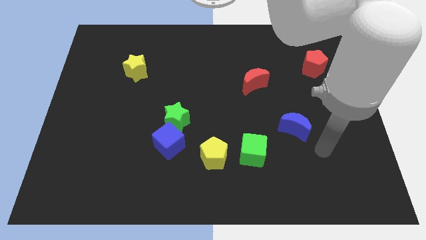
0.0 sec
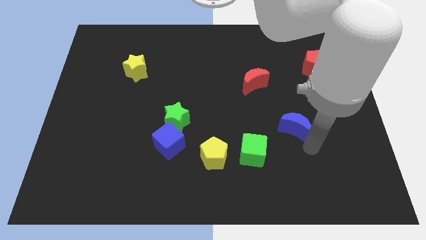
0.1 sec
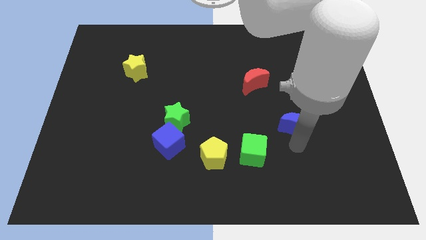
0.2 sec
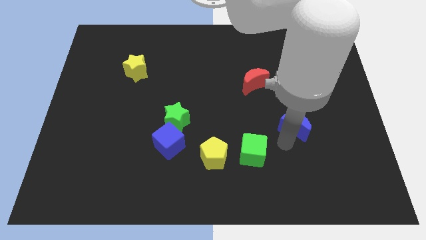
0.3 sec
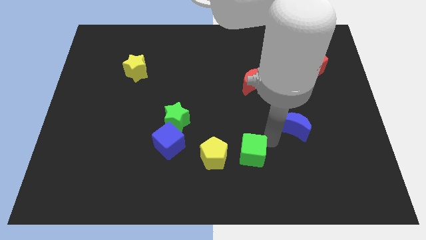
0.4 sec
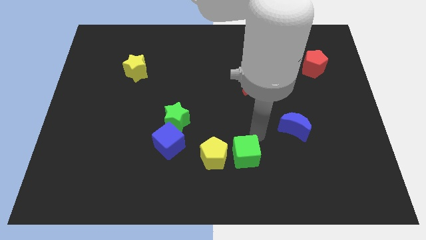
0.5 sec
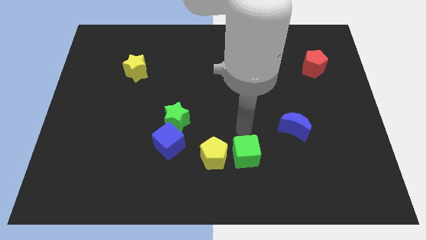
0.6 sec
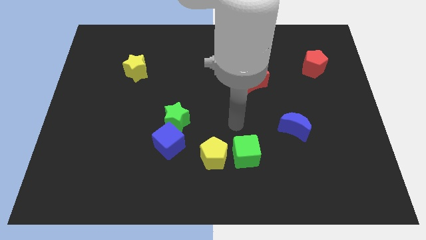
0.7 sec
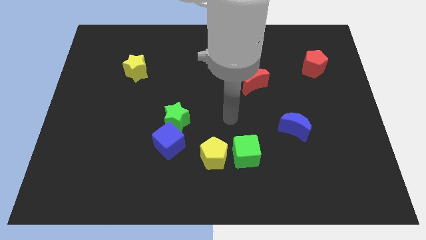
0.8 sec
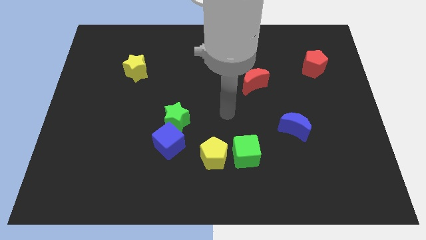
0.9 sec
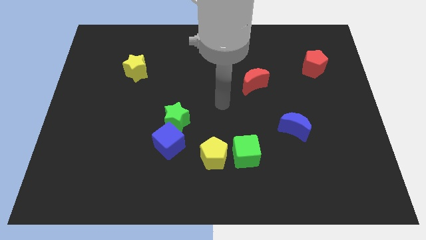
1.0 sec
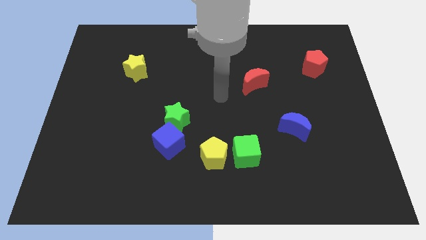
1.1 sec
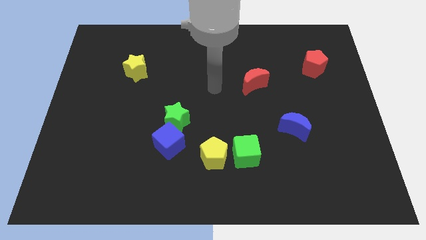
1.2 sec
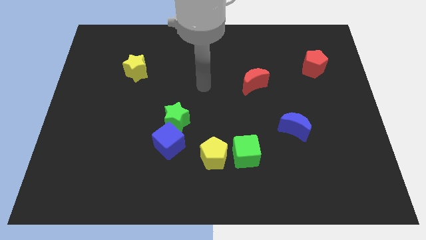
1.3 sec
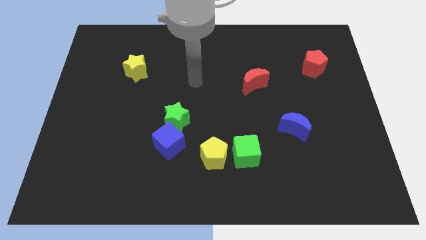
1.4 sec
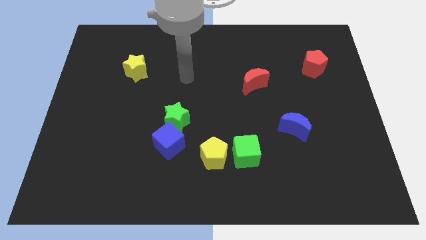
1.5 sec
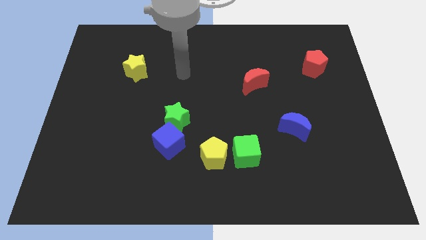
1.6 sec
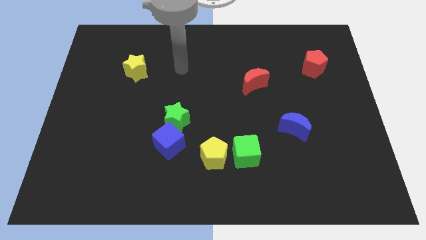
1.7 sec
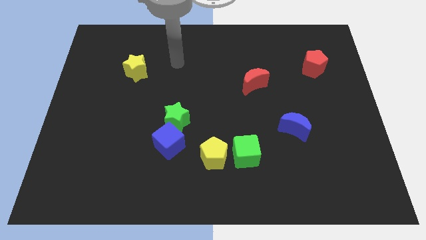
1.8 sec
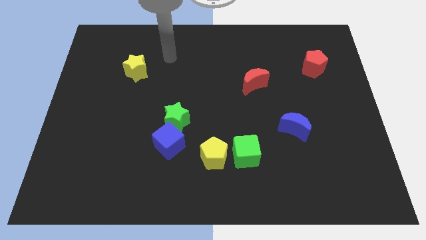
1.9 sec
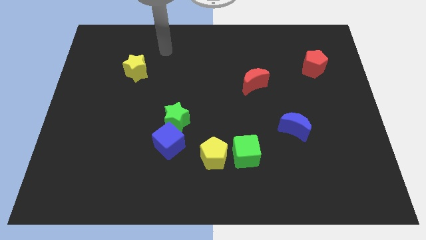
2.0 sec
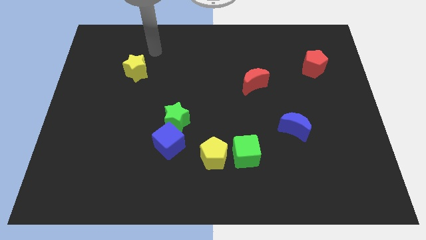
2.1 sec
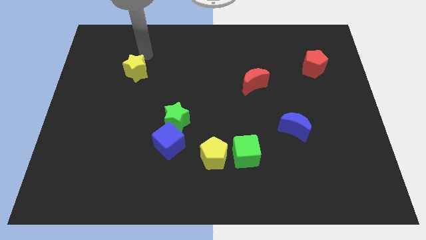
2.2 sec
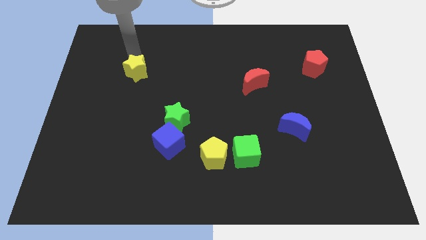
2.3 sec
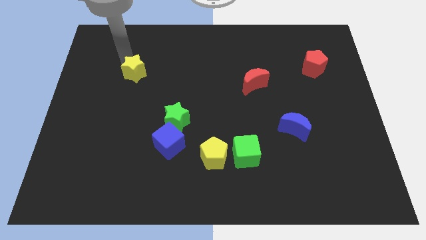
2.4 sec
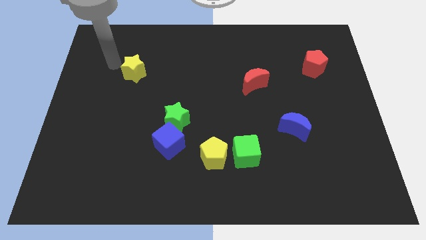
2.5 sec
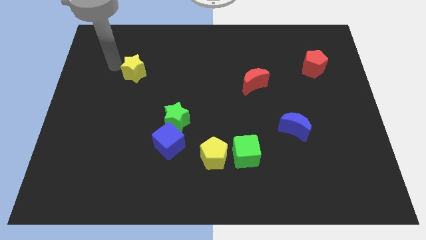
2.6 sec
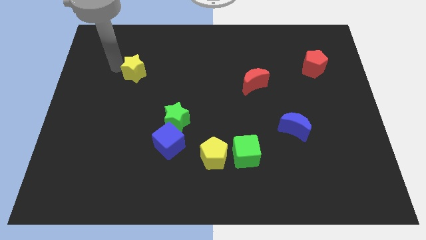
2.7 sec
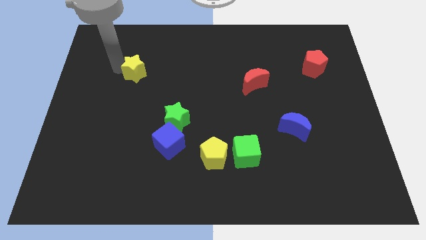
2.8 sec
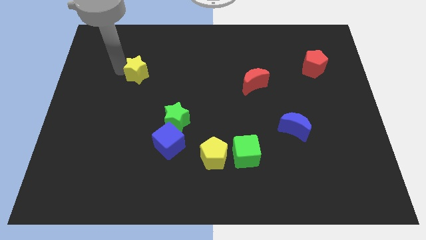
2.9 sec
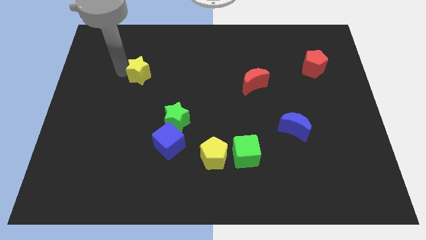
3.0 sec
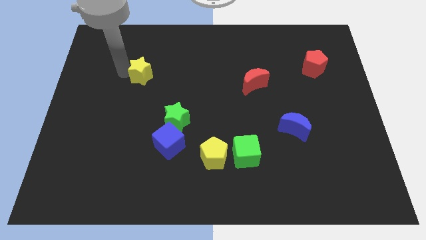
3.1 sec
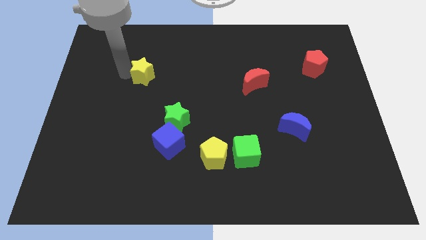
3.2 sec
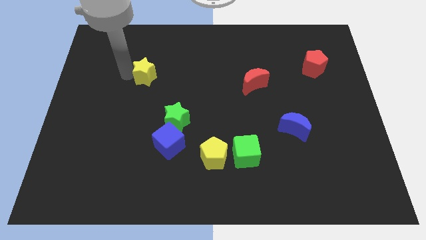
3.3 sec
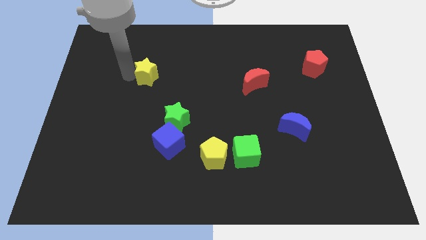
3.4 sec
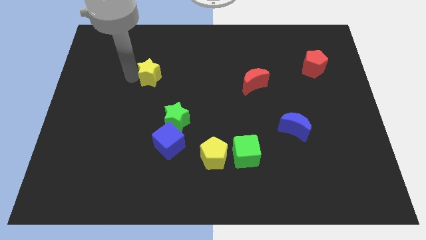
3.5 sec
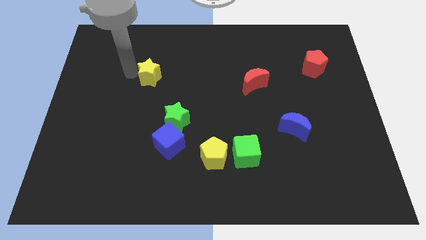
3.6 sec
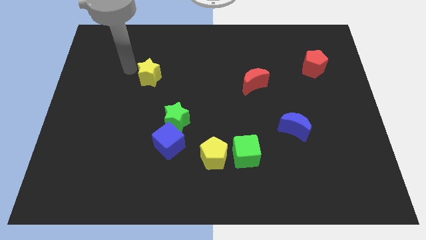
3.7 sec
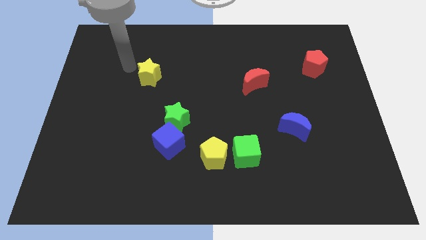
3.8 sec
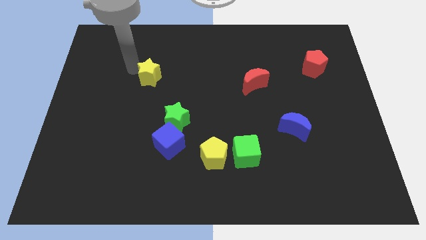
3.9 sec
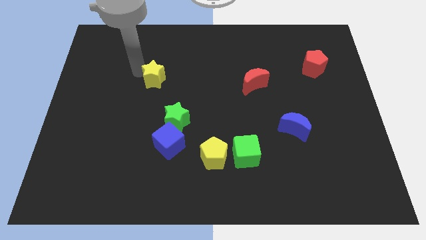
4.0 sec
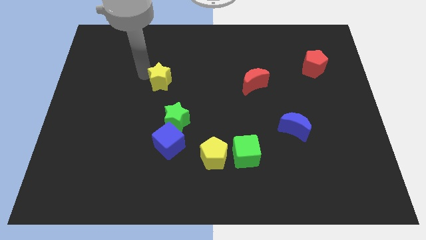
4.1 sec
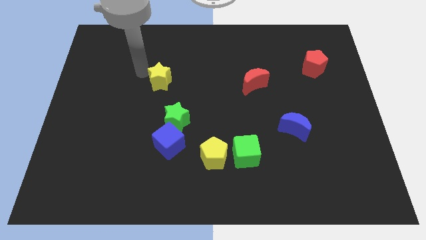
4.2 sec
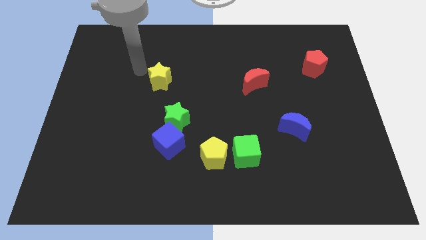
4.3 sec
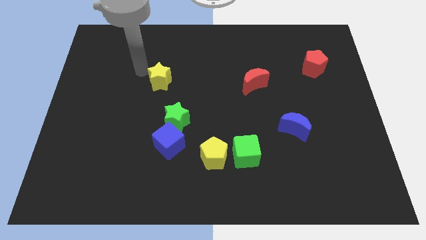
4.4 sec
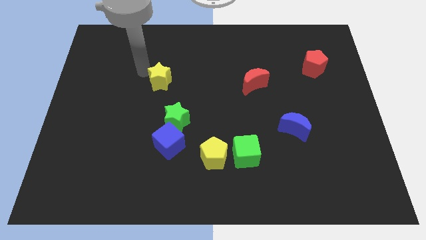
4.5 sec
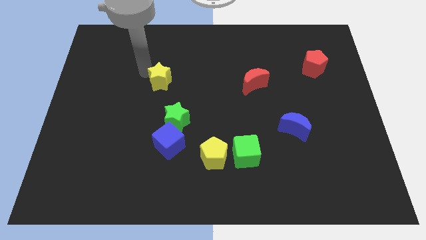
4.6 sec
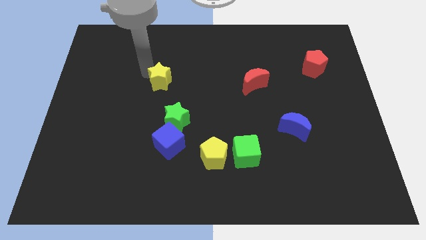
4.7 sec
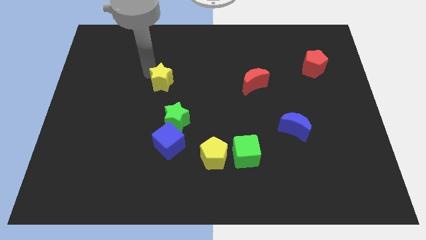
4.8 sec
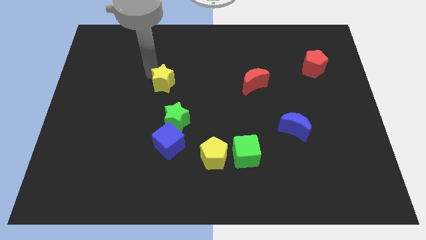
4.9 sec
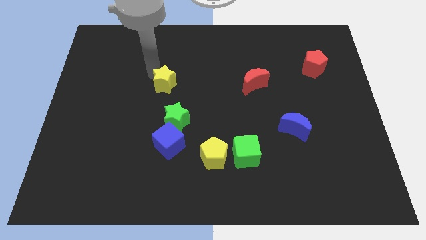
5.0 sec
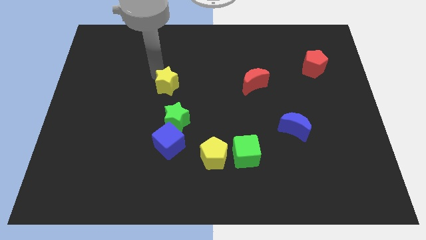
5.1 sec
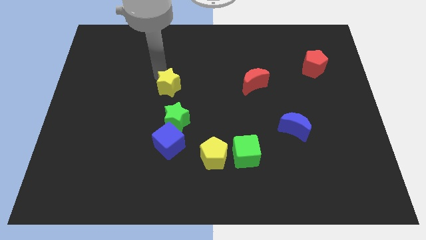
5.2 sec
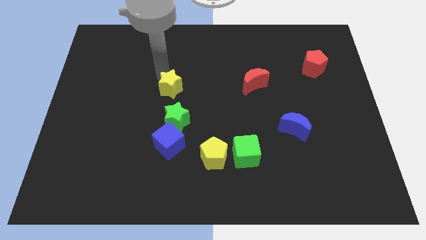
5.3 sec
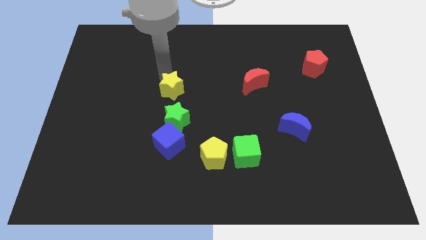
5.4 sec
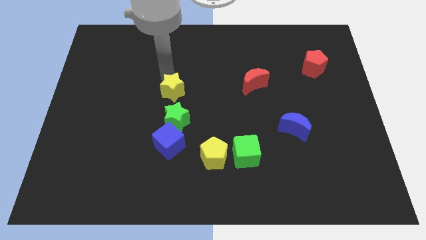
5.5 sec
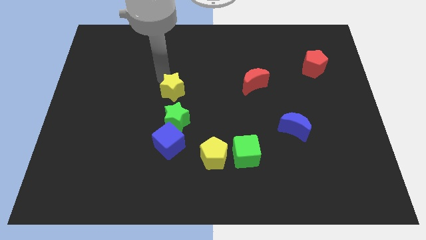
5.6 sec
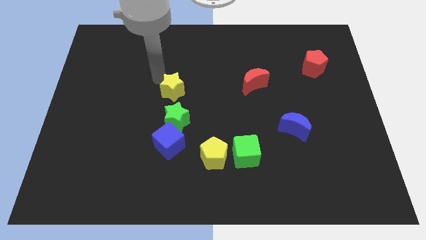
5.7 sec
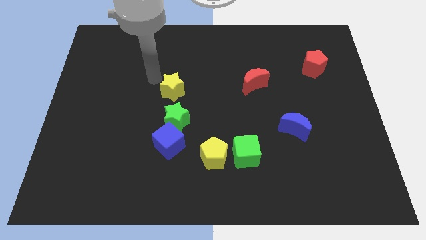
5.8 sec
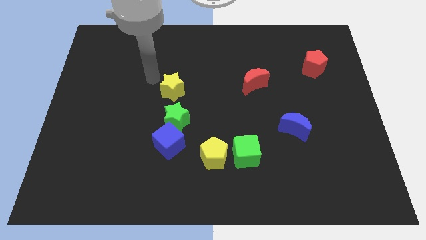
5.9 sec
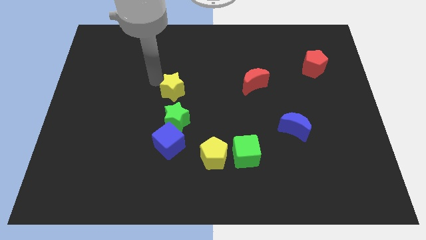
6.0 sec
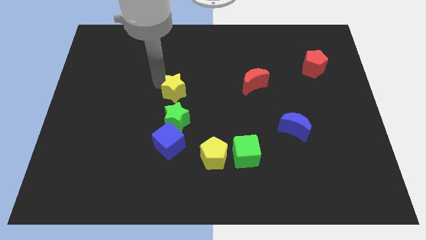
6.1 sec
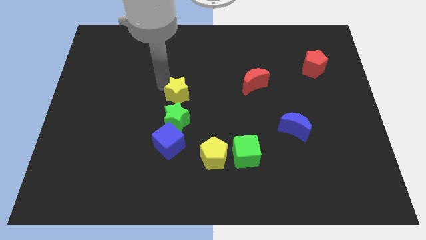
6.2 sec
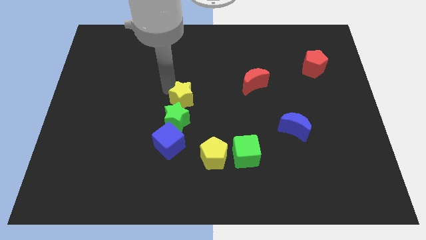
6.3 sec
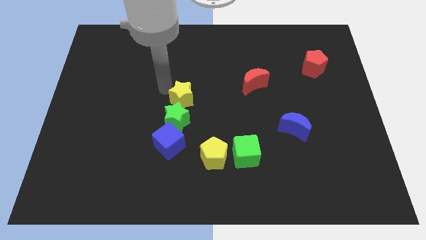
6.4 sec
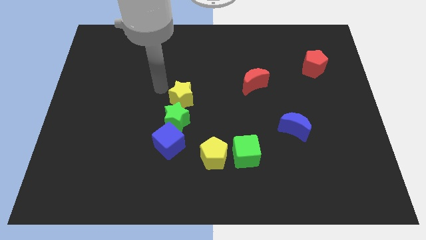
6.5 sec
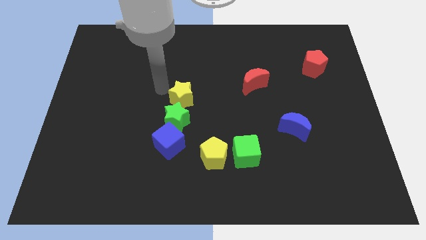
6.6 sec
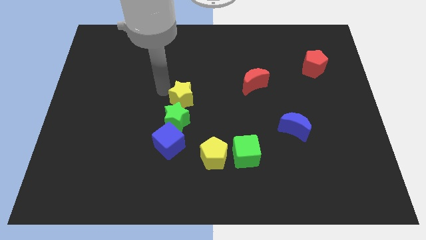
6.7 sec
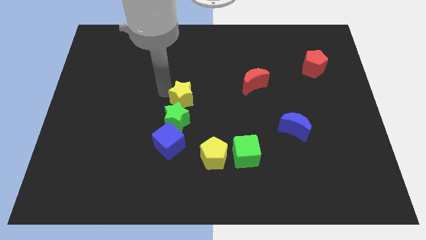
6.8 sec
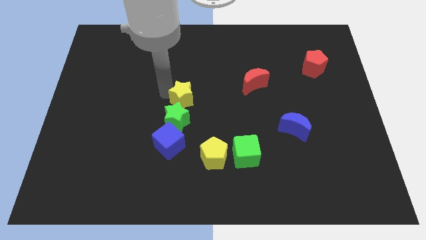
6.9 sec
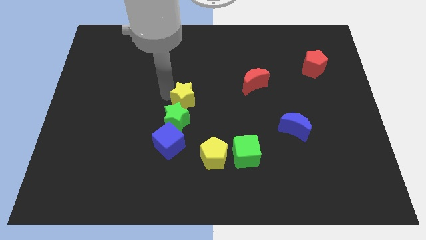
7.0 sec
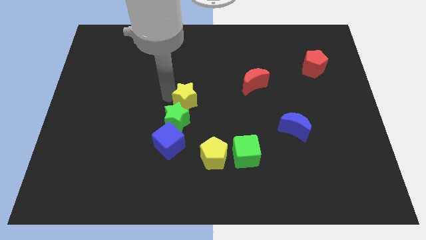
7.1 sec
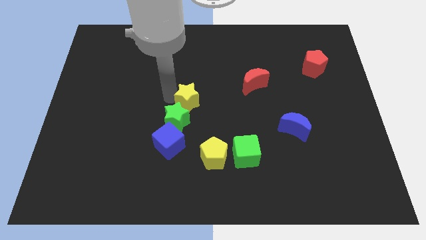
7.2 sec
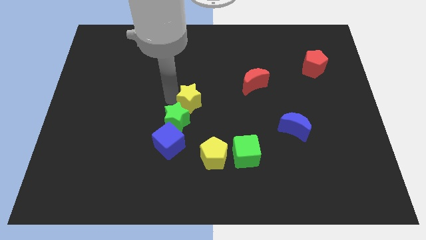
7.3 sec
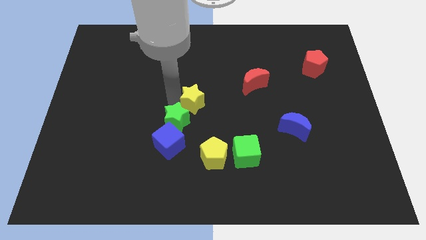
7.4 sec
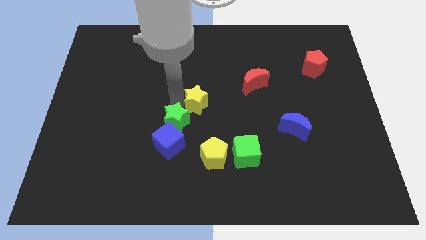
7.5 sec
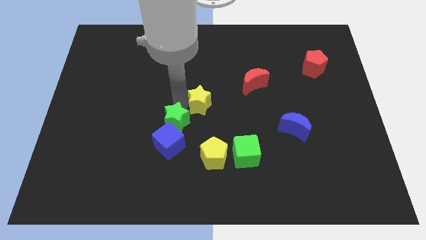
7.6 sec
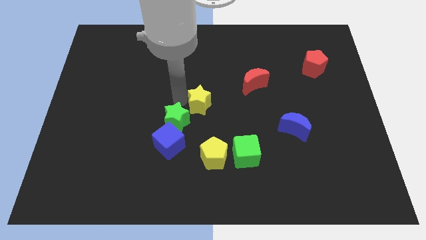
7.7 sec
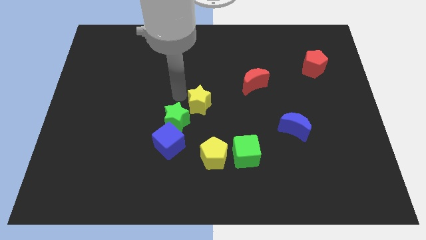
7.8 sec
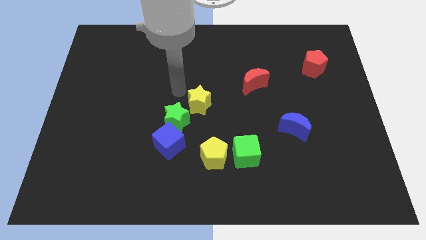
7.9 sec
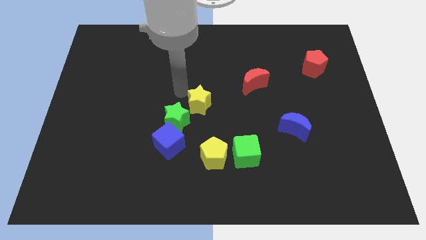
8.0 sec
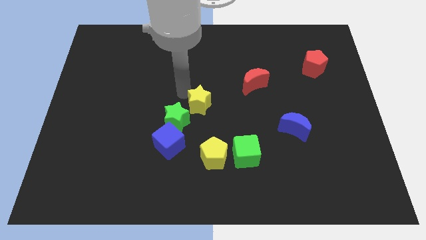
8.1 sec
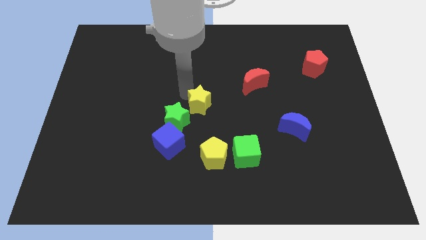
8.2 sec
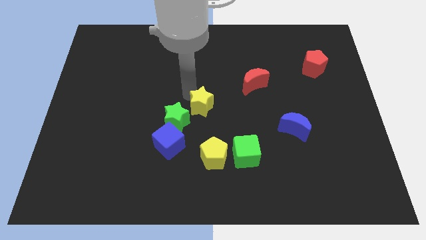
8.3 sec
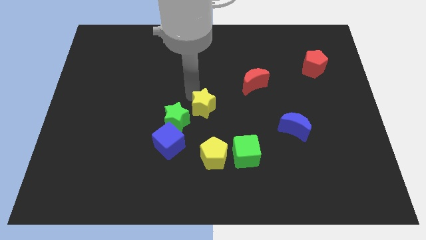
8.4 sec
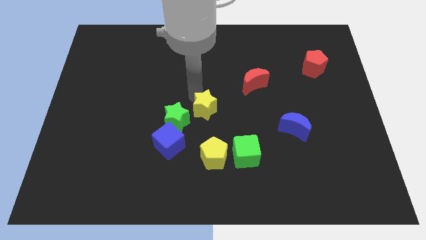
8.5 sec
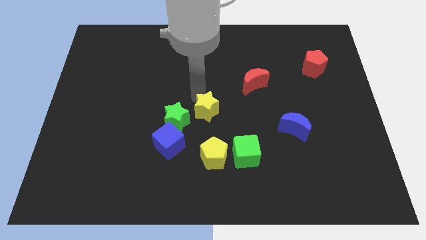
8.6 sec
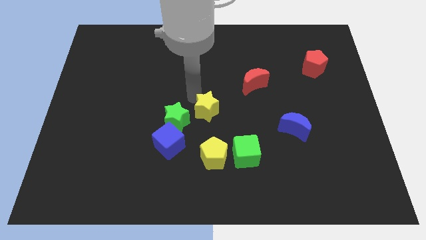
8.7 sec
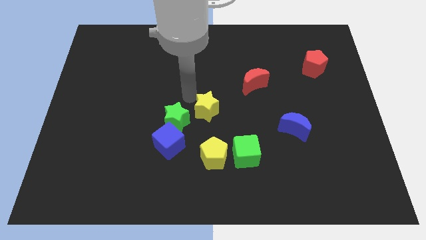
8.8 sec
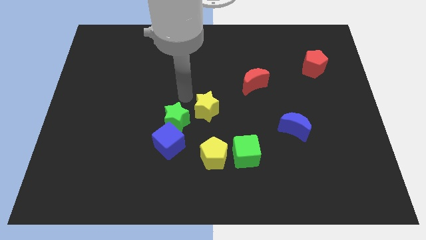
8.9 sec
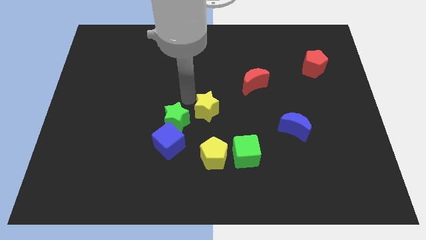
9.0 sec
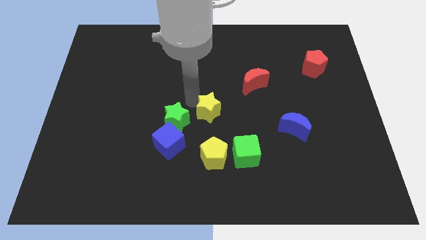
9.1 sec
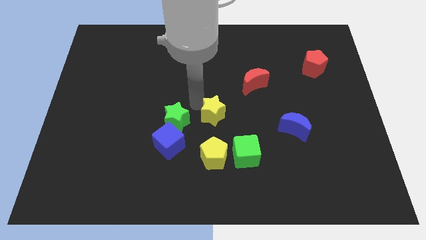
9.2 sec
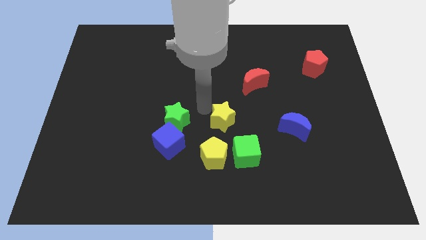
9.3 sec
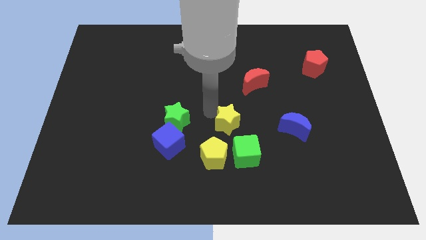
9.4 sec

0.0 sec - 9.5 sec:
push the yellow star diagonally up and to the right of the yellow pentagon
